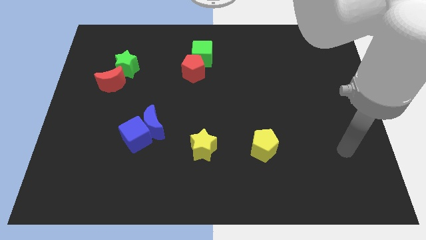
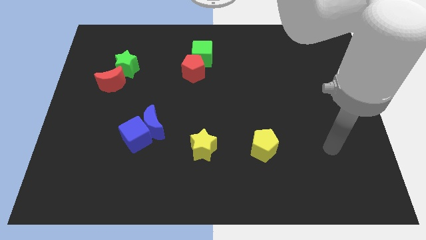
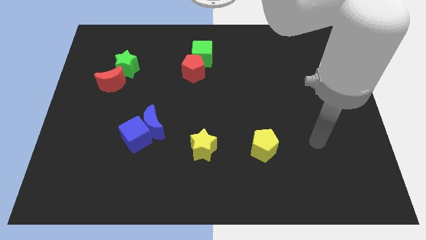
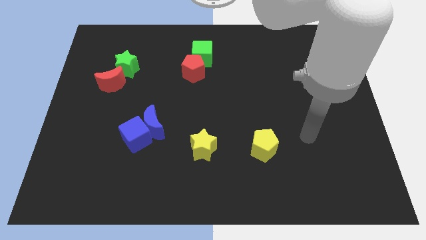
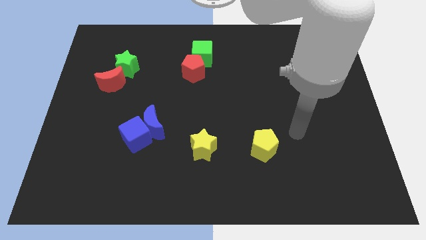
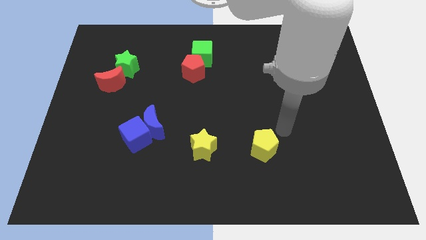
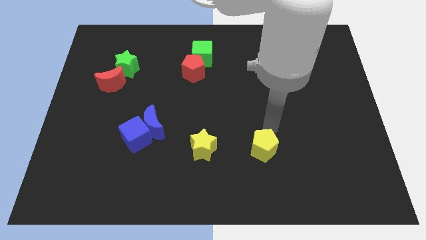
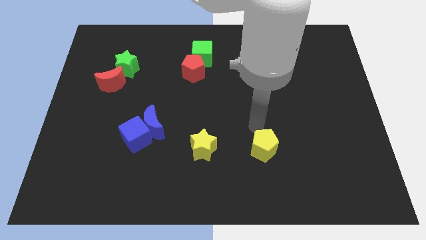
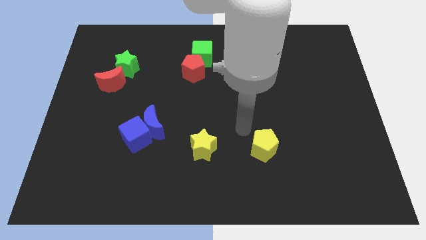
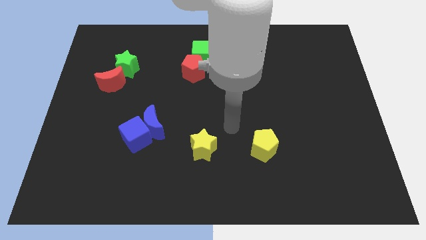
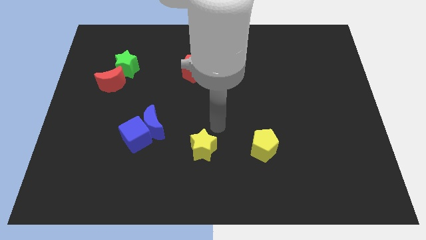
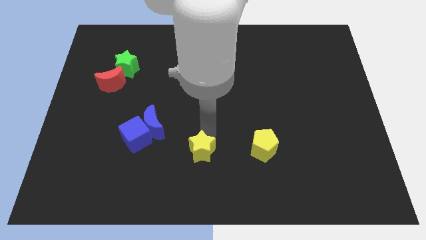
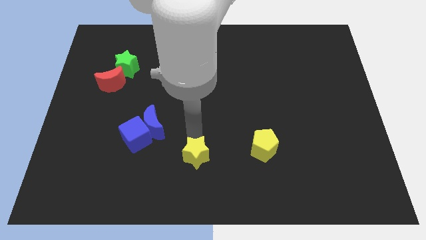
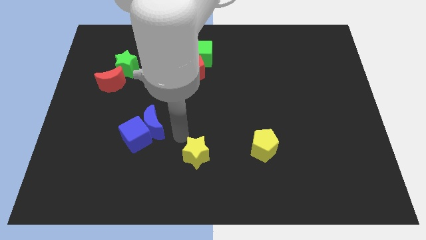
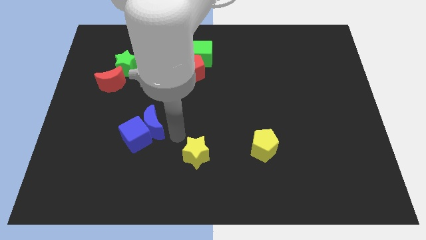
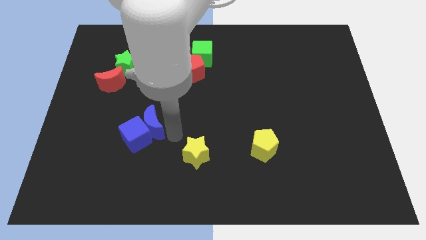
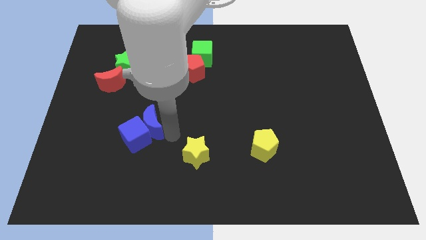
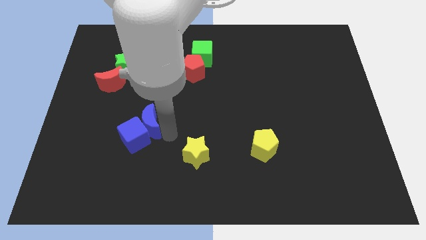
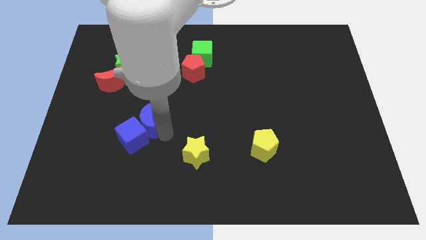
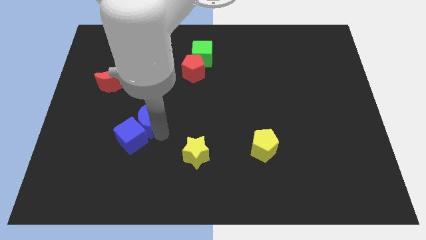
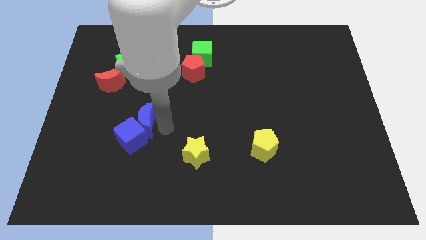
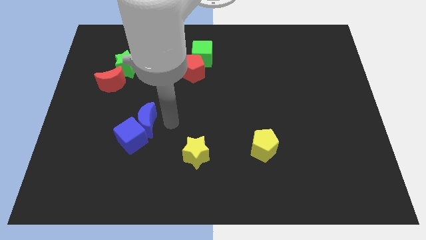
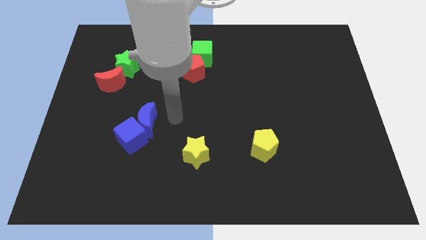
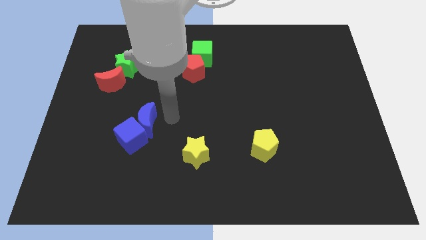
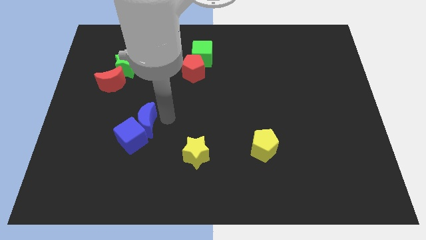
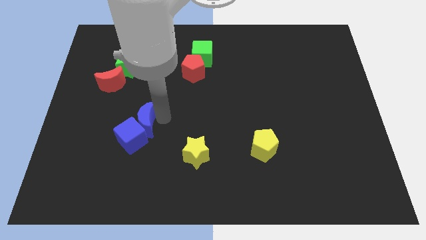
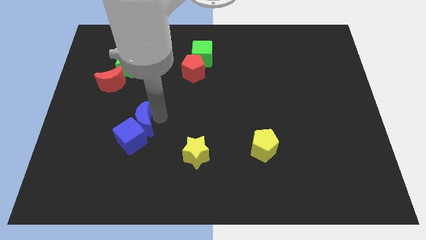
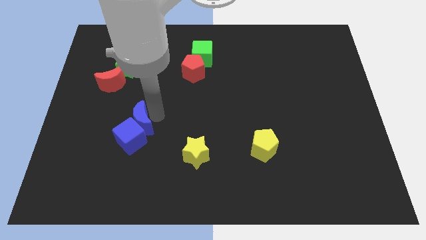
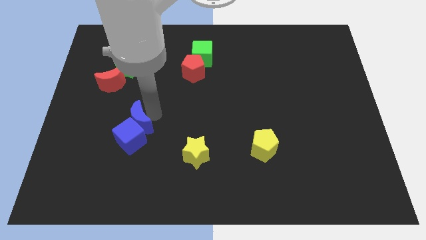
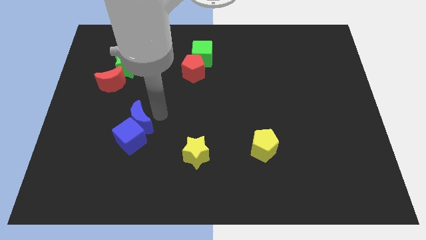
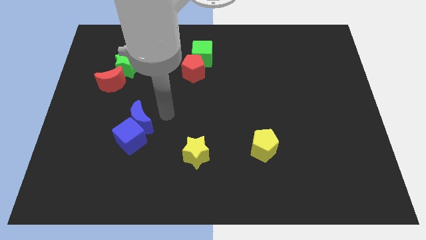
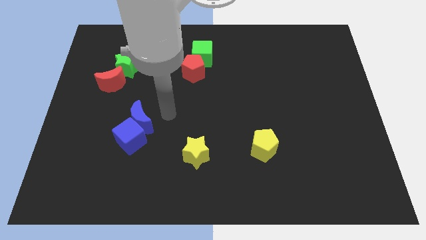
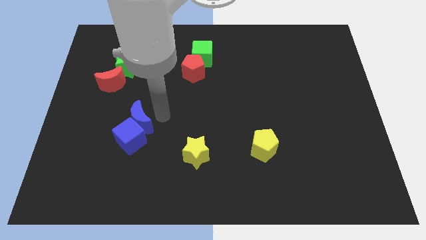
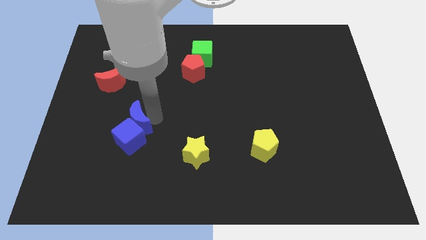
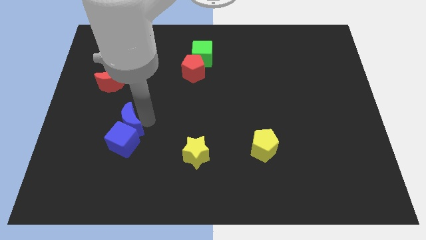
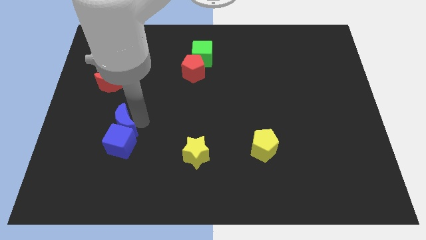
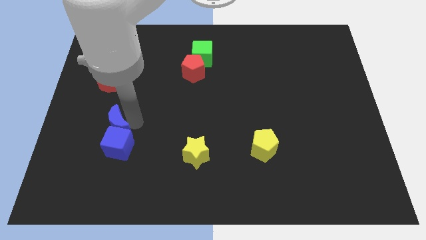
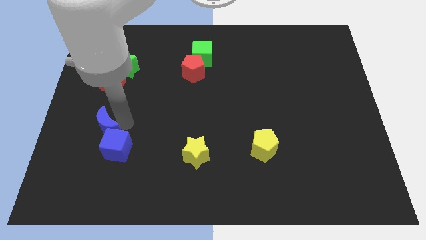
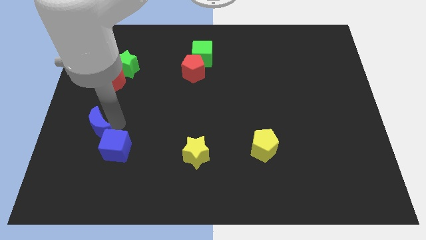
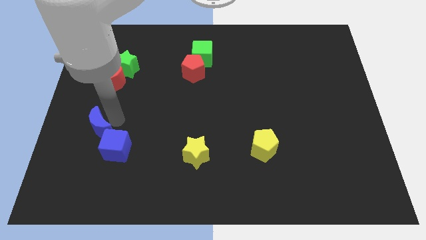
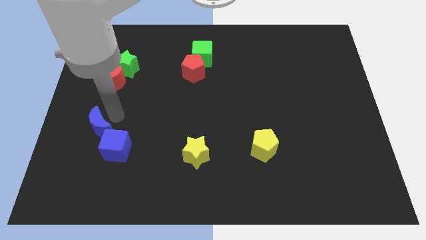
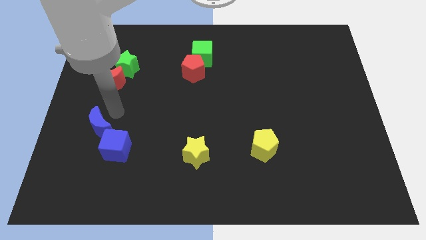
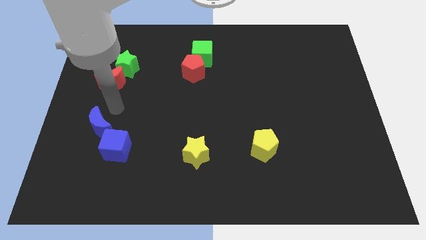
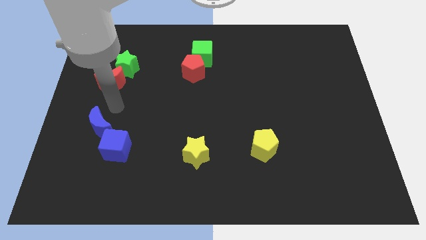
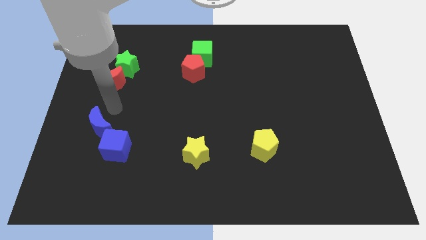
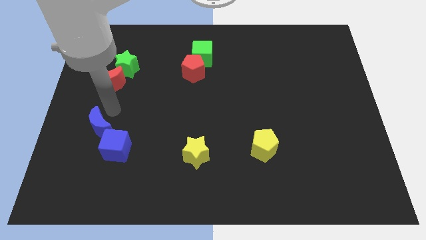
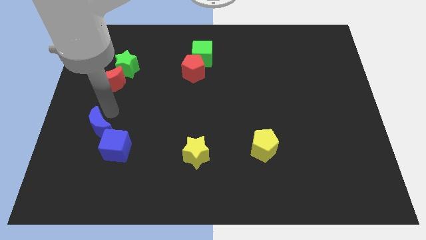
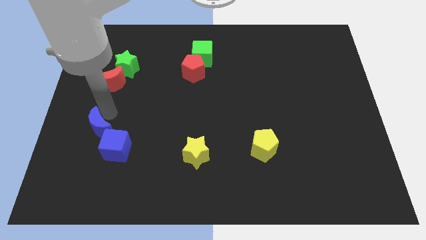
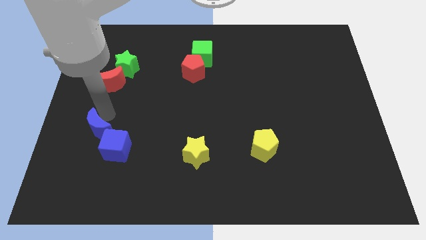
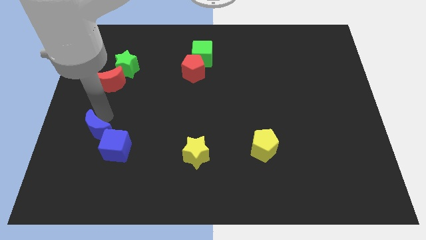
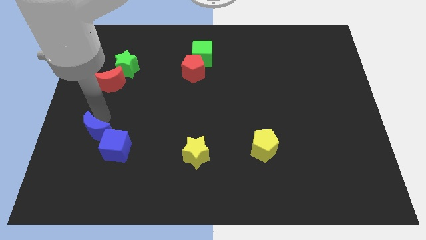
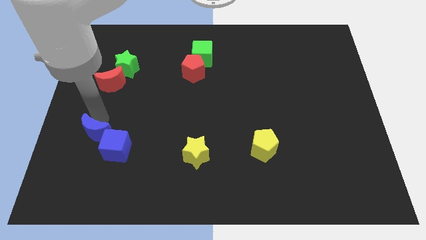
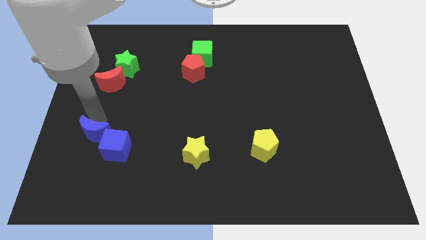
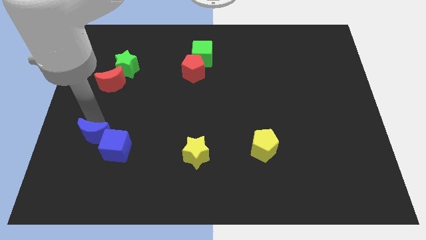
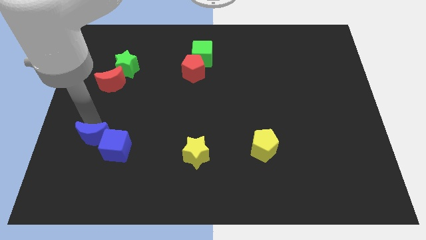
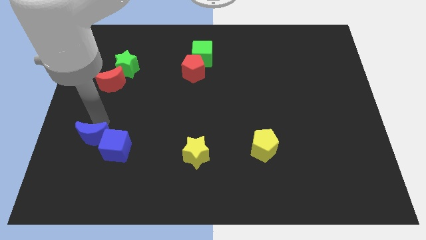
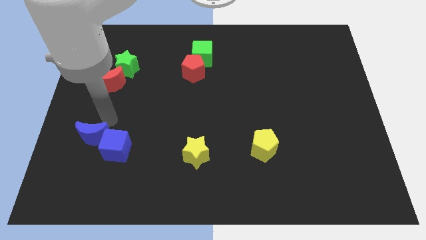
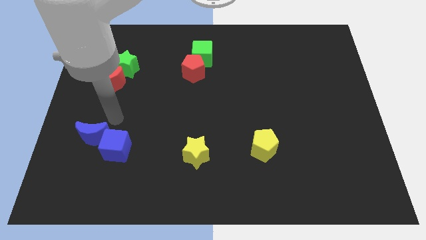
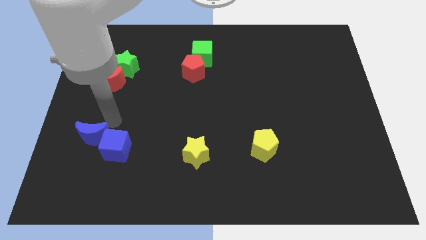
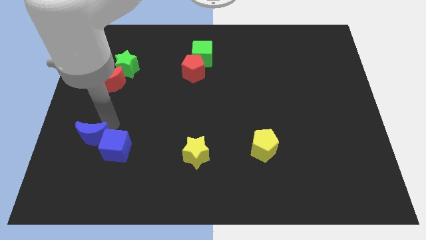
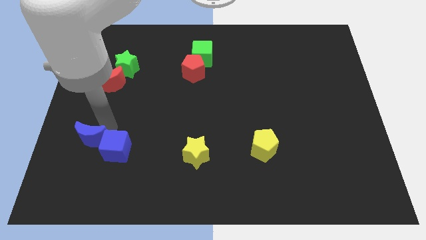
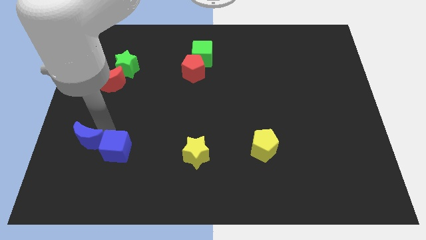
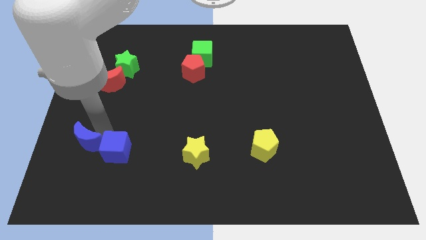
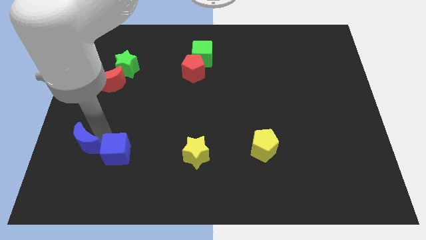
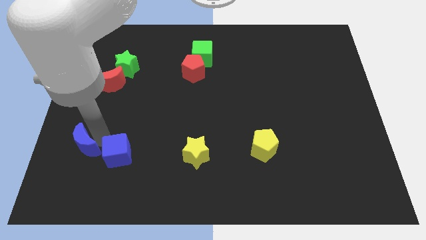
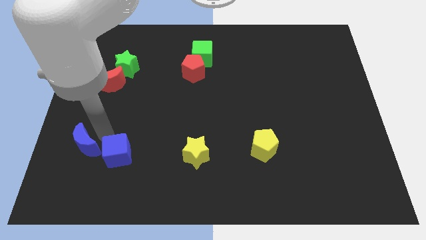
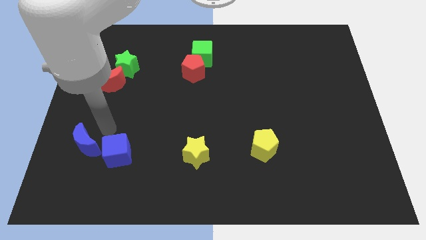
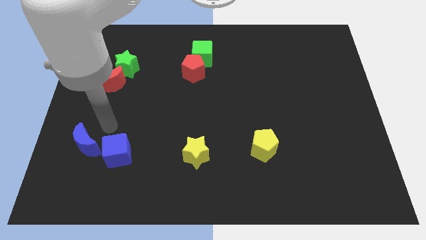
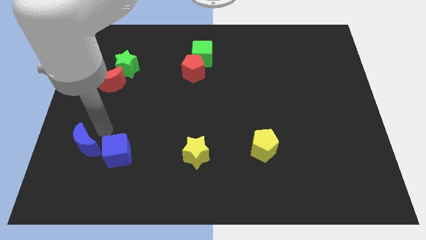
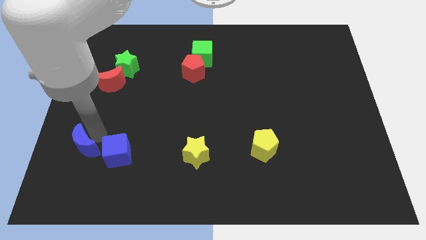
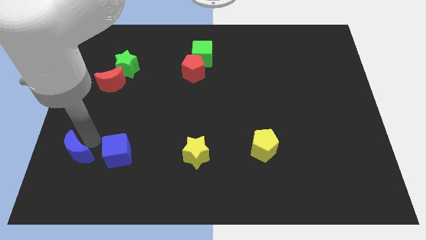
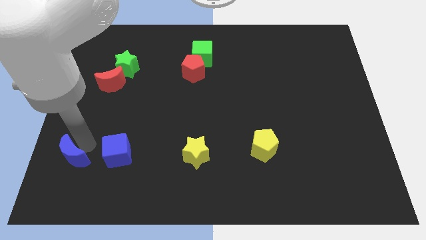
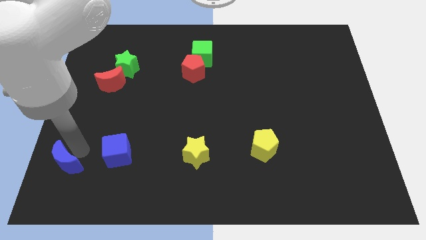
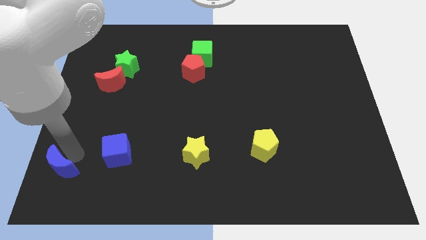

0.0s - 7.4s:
put the blue moon to the lower left corner
